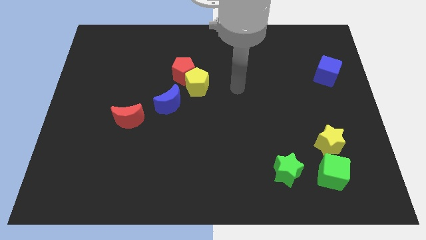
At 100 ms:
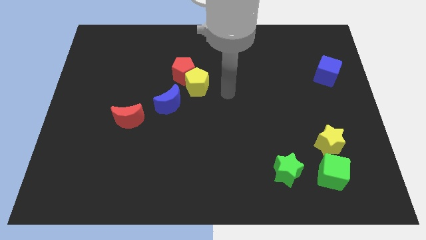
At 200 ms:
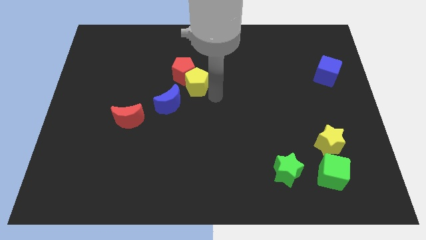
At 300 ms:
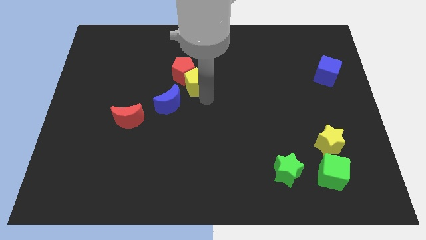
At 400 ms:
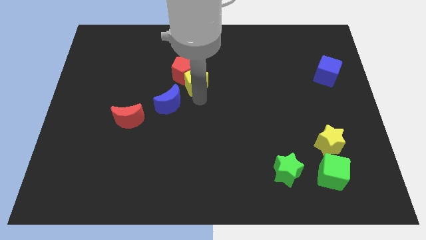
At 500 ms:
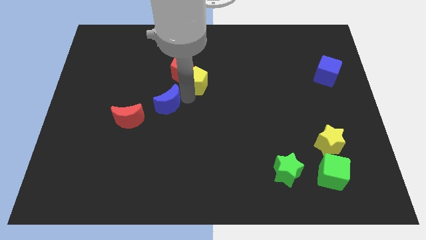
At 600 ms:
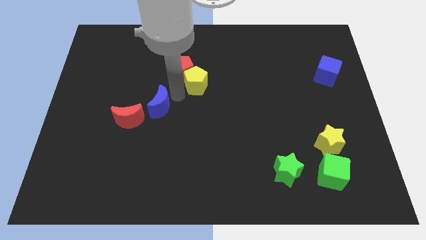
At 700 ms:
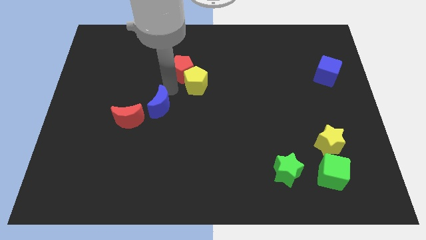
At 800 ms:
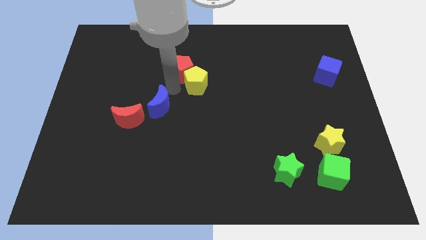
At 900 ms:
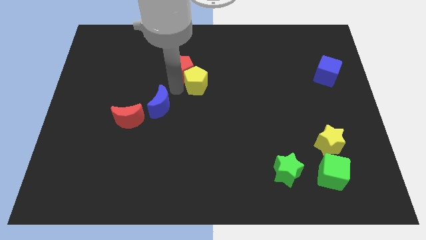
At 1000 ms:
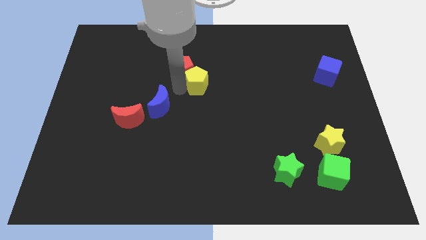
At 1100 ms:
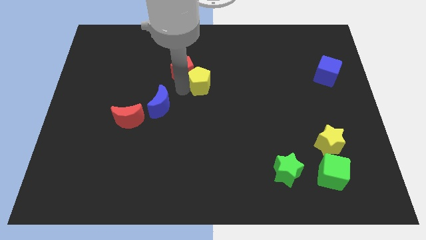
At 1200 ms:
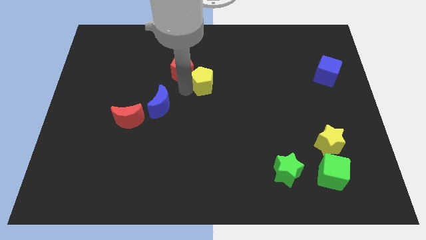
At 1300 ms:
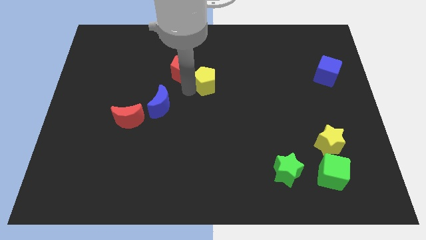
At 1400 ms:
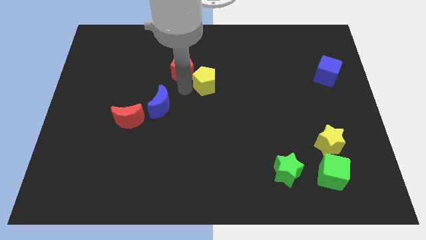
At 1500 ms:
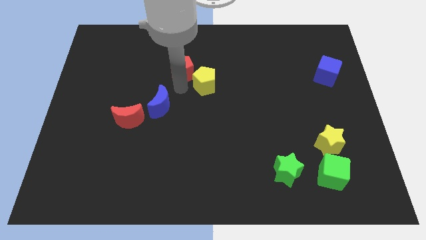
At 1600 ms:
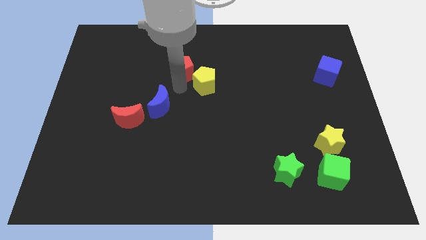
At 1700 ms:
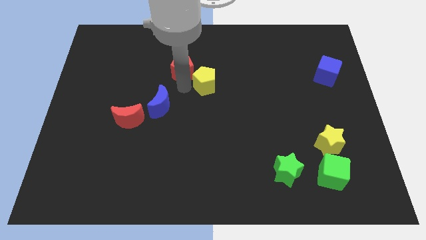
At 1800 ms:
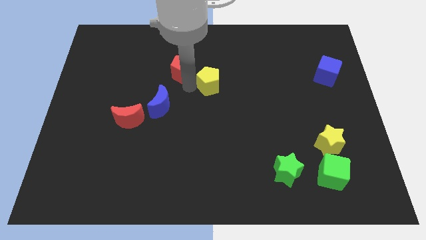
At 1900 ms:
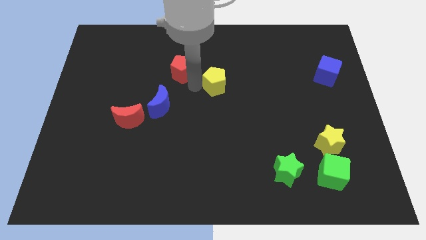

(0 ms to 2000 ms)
pull the yellow pentagon apart from the red pentagon and blue moon

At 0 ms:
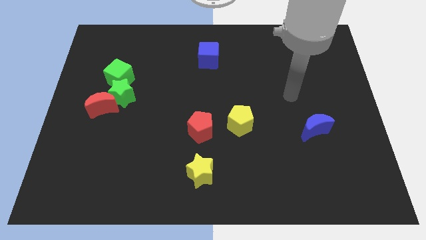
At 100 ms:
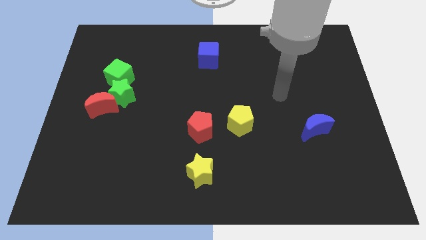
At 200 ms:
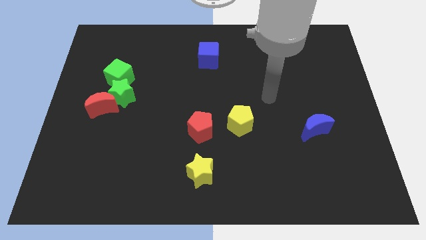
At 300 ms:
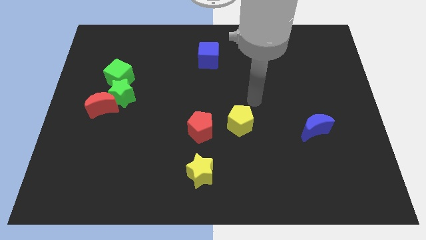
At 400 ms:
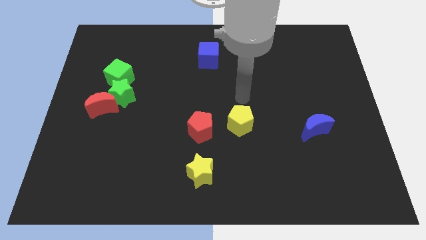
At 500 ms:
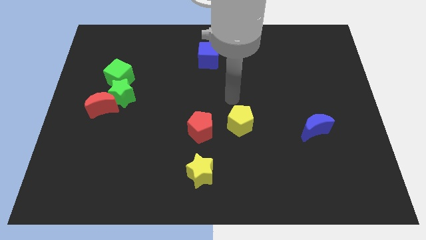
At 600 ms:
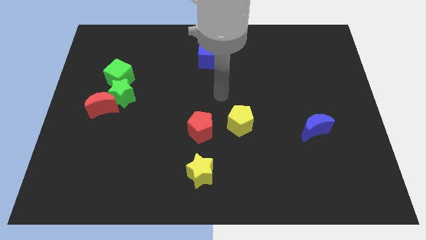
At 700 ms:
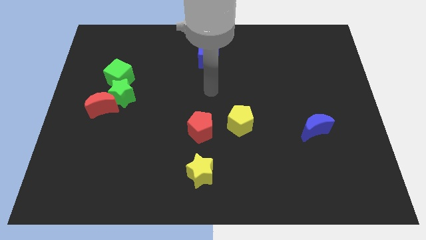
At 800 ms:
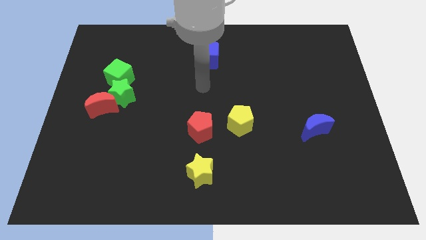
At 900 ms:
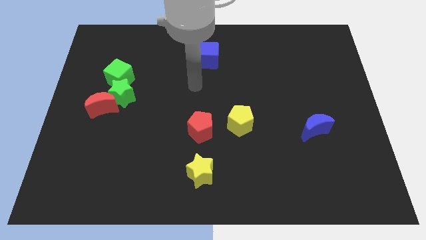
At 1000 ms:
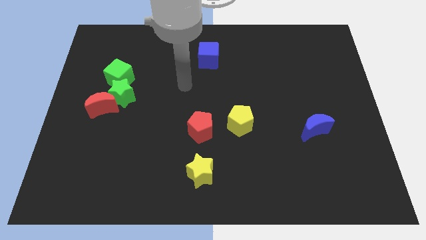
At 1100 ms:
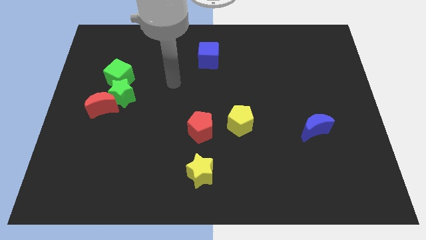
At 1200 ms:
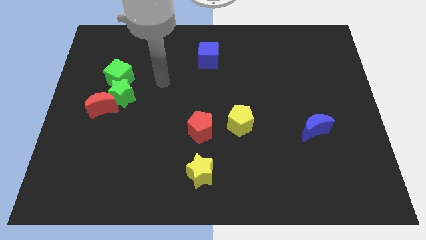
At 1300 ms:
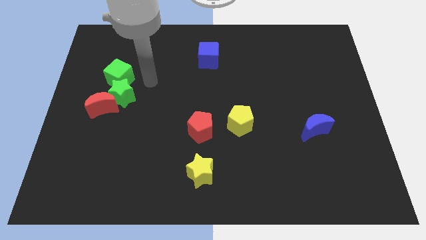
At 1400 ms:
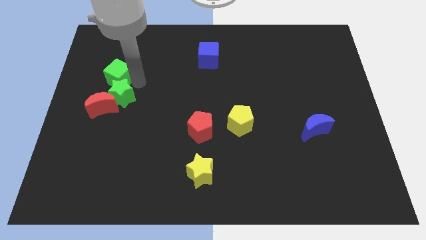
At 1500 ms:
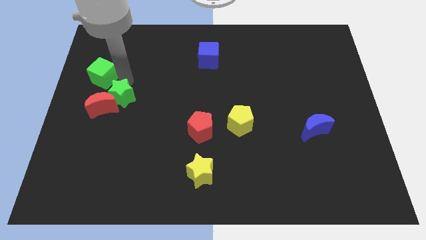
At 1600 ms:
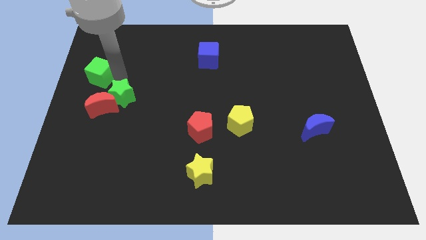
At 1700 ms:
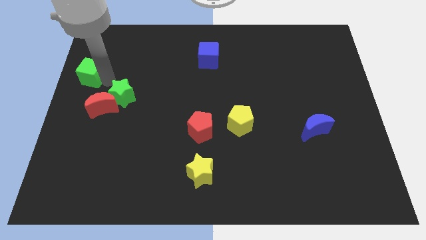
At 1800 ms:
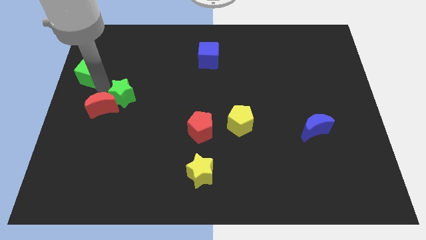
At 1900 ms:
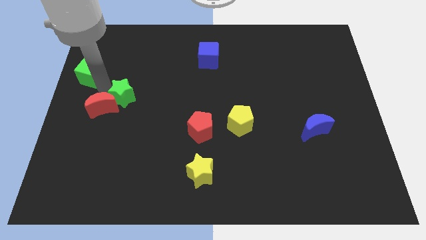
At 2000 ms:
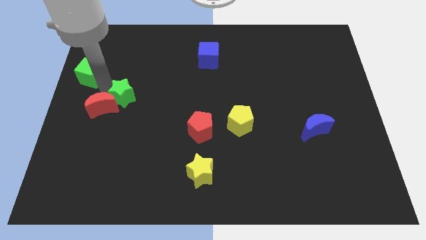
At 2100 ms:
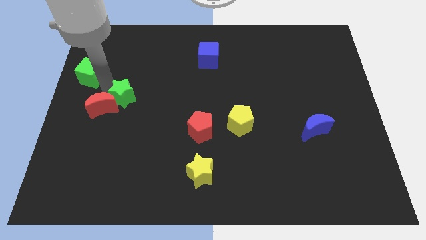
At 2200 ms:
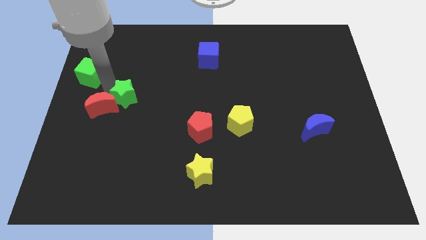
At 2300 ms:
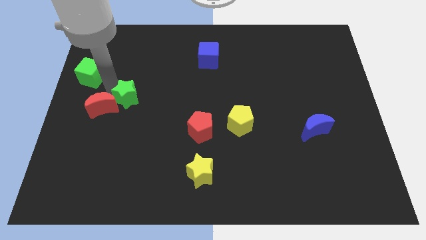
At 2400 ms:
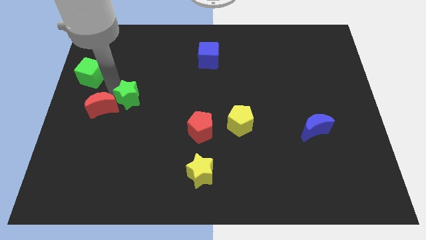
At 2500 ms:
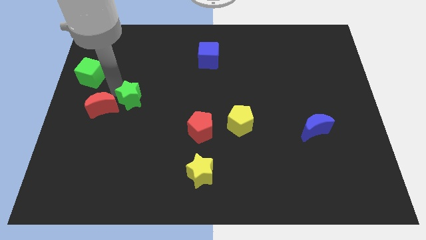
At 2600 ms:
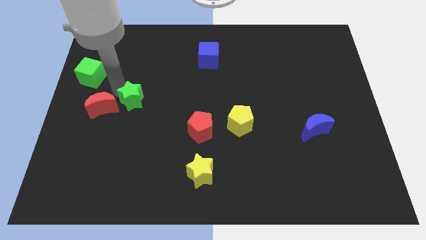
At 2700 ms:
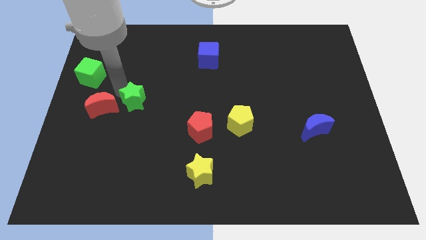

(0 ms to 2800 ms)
move the green star away from the red moon and green cube

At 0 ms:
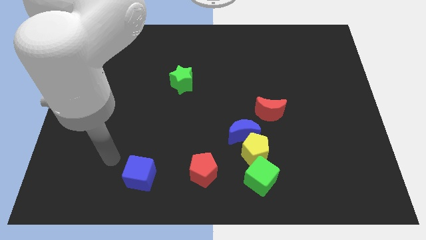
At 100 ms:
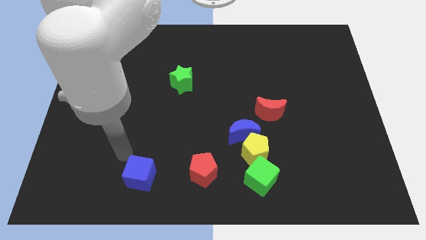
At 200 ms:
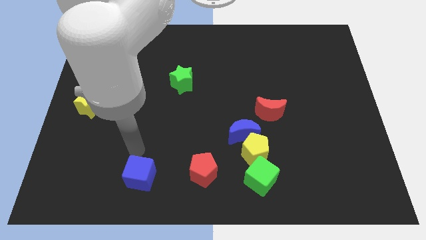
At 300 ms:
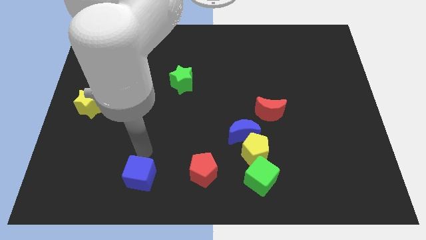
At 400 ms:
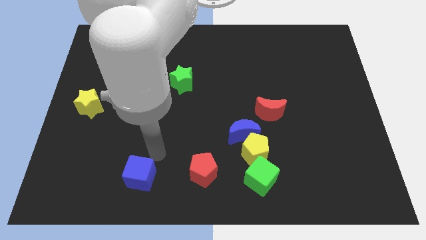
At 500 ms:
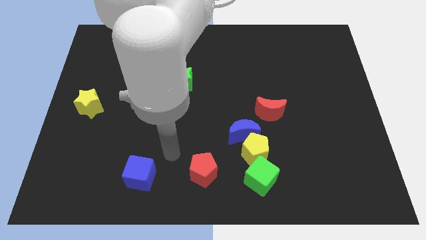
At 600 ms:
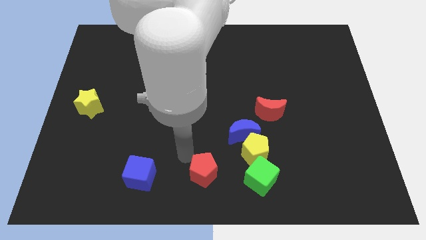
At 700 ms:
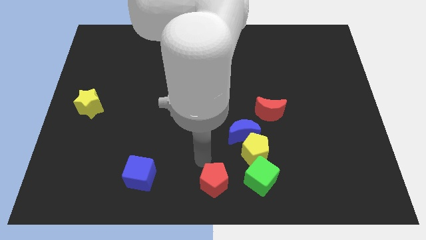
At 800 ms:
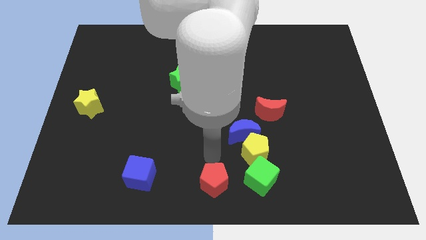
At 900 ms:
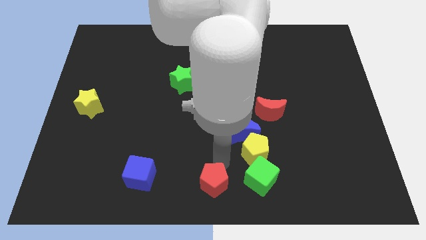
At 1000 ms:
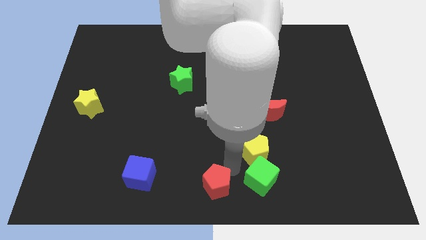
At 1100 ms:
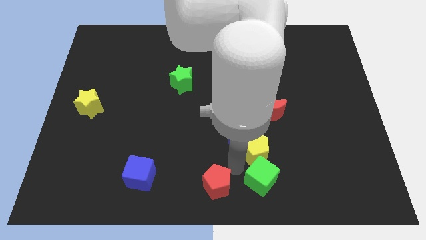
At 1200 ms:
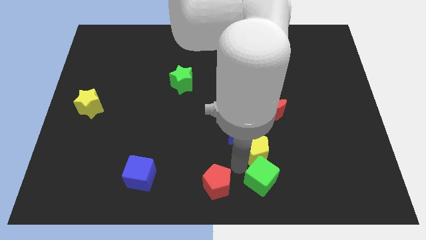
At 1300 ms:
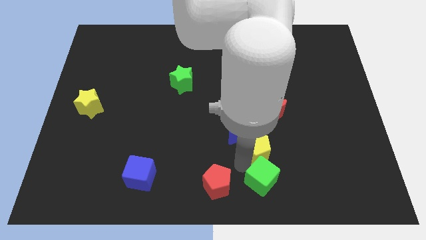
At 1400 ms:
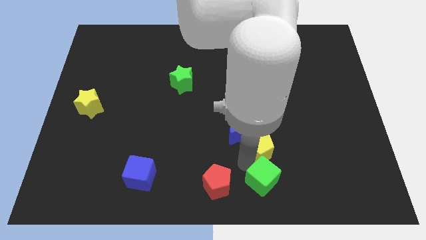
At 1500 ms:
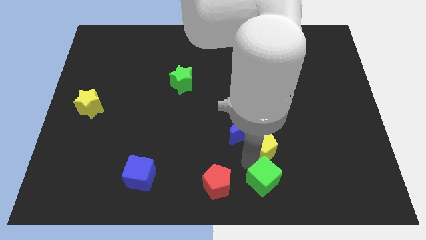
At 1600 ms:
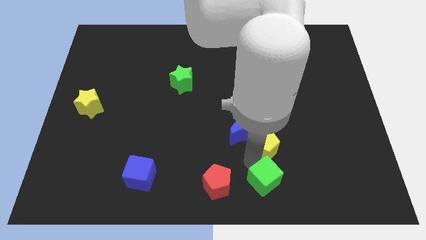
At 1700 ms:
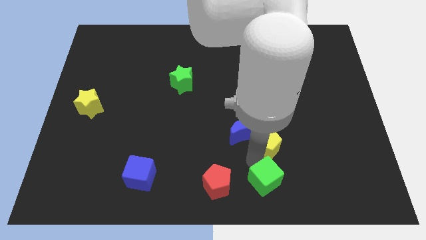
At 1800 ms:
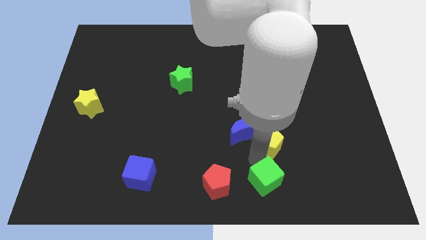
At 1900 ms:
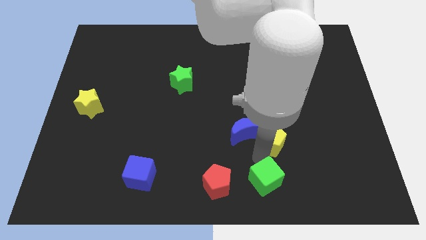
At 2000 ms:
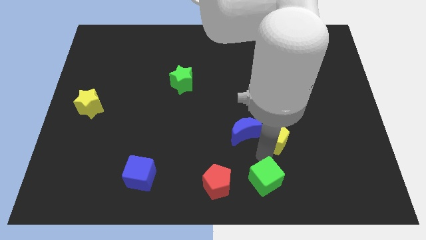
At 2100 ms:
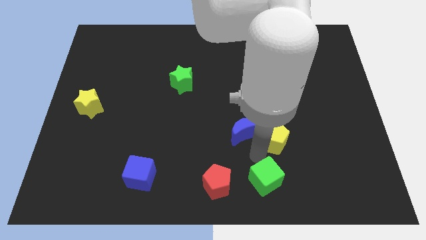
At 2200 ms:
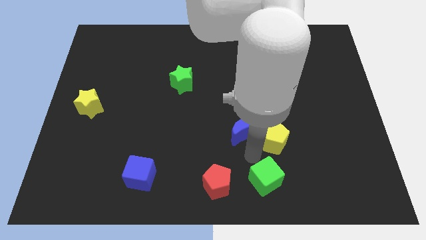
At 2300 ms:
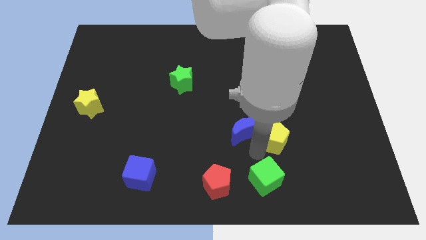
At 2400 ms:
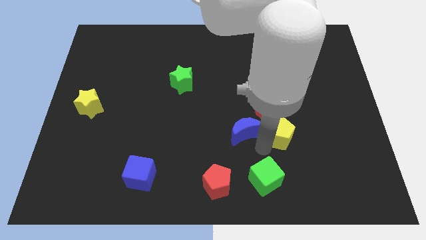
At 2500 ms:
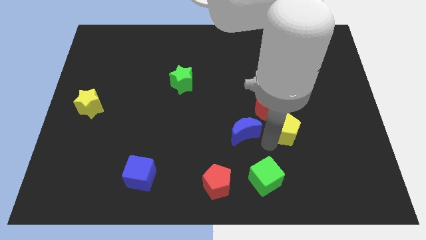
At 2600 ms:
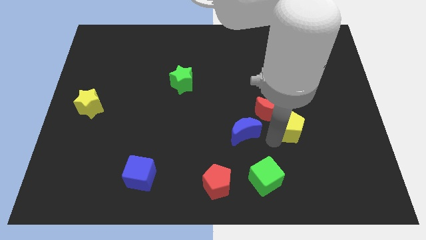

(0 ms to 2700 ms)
pull the yellow pentagon apart from the blue moon and green cube

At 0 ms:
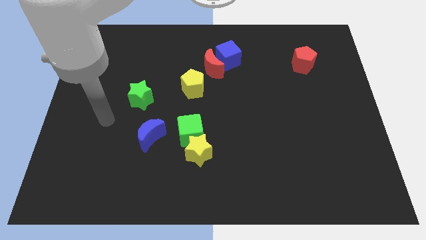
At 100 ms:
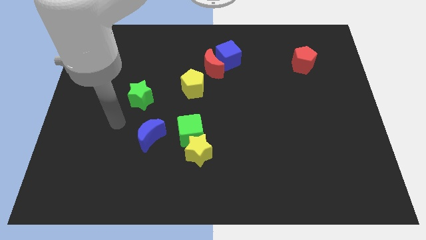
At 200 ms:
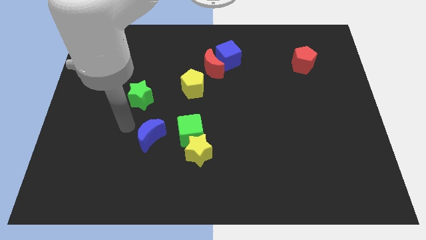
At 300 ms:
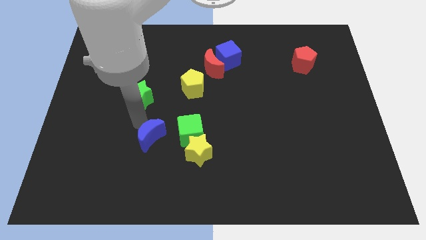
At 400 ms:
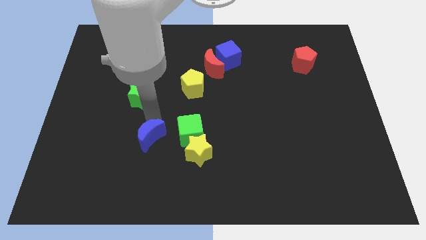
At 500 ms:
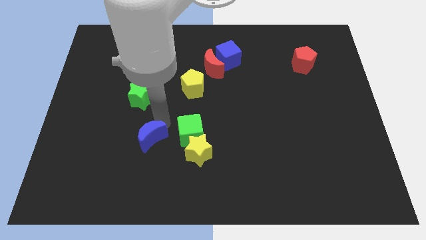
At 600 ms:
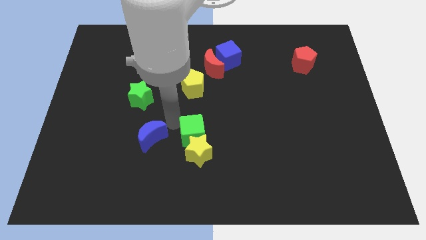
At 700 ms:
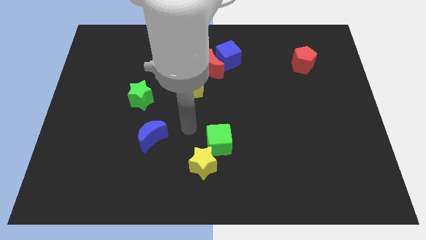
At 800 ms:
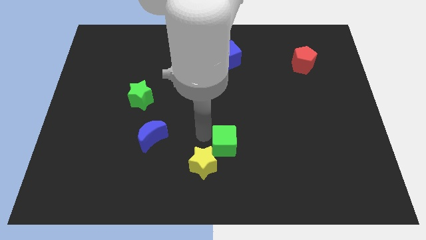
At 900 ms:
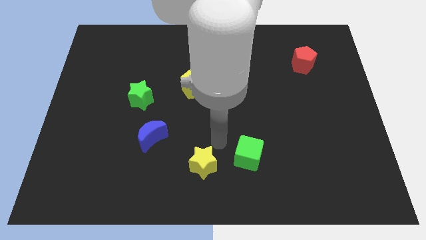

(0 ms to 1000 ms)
move the yellow star away from the green cube

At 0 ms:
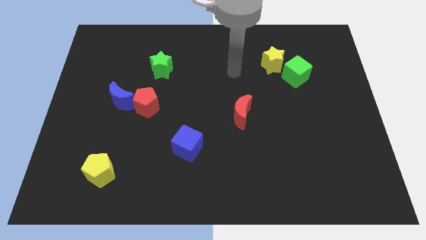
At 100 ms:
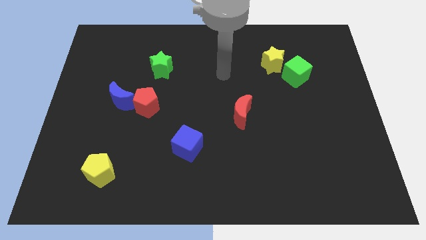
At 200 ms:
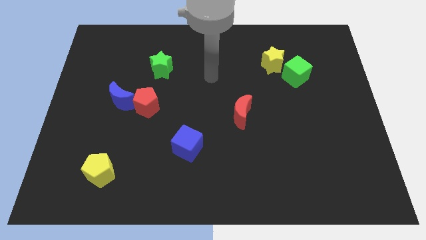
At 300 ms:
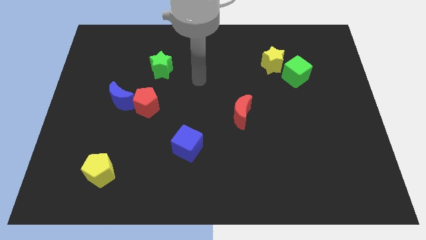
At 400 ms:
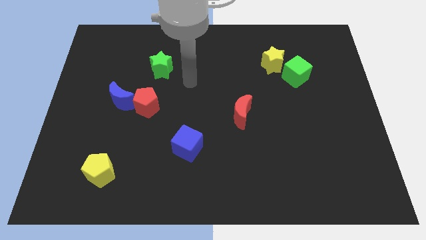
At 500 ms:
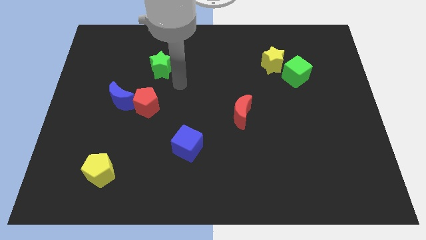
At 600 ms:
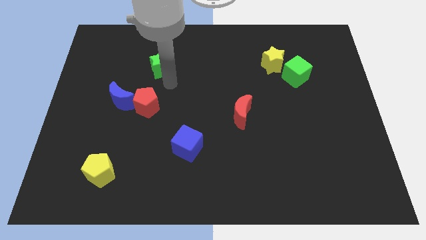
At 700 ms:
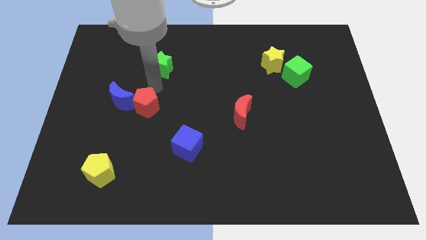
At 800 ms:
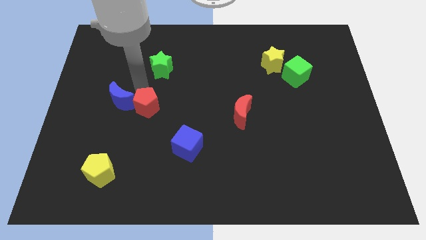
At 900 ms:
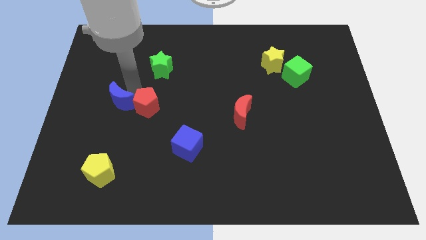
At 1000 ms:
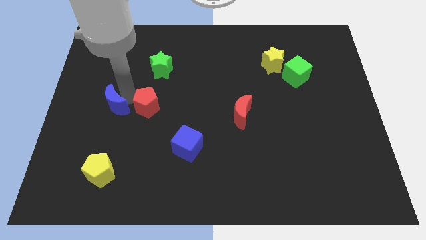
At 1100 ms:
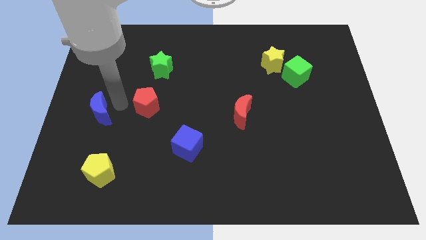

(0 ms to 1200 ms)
move the red pentagon away from the blue moon
